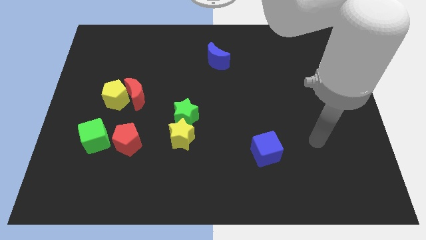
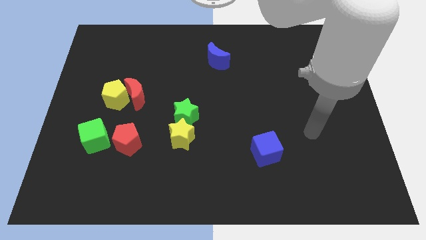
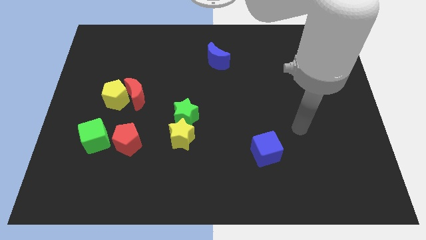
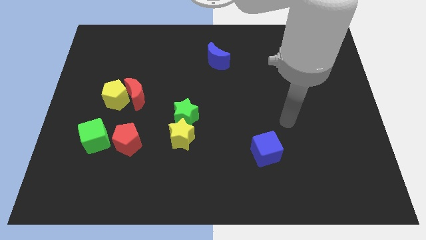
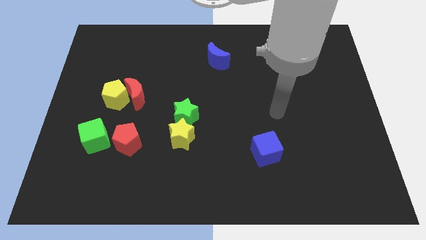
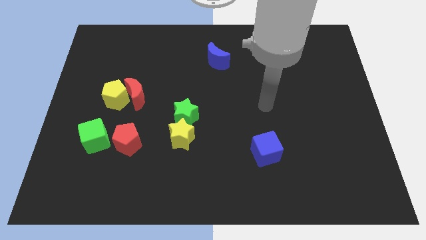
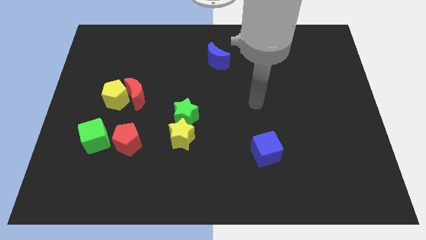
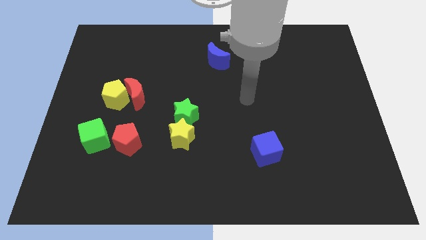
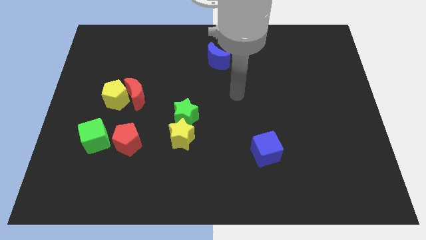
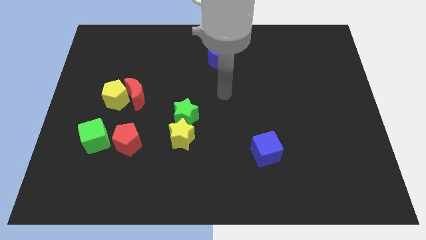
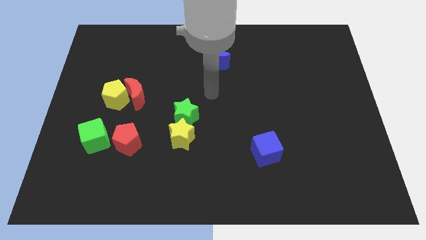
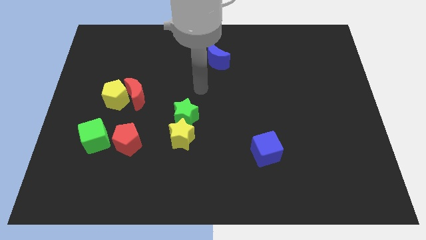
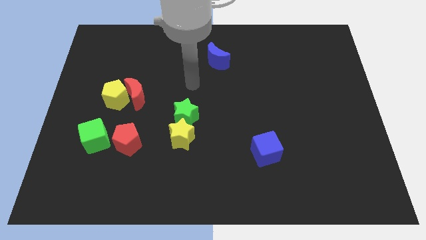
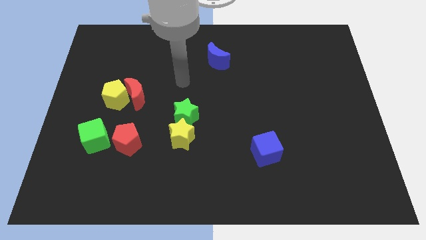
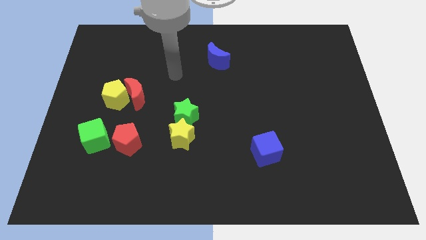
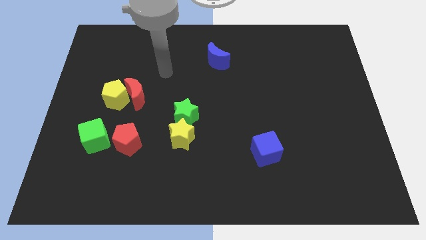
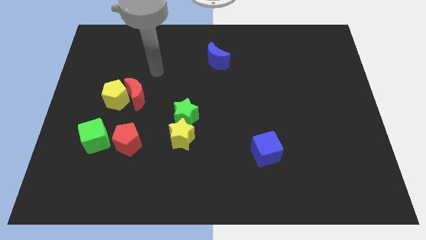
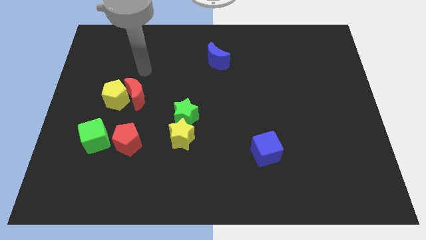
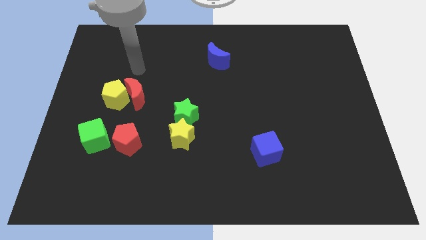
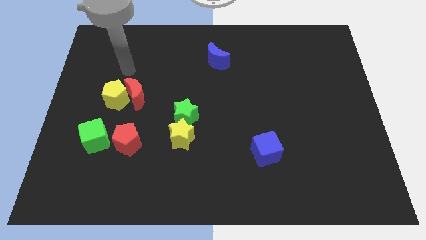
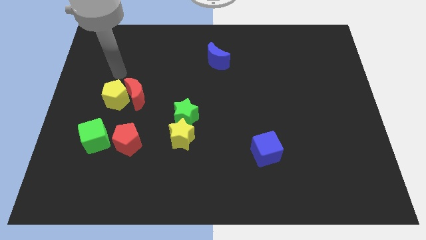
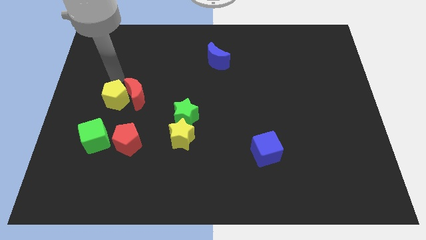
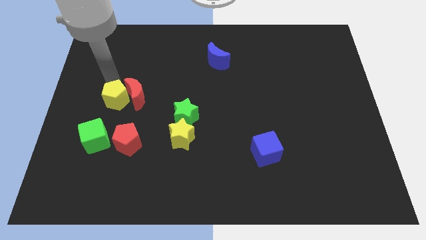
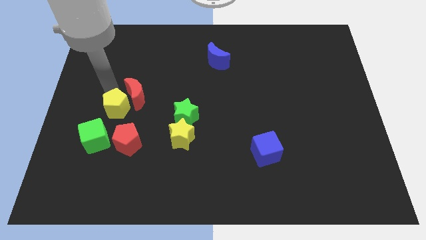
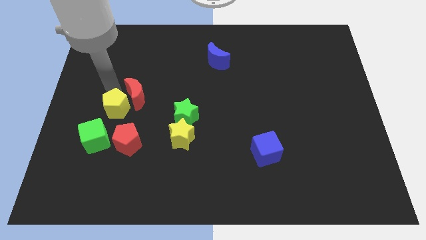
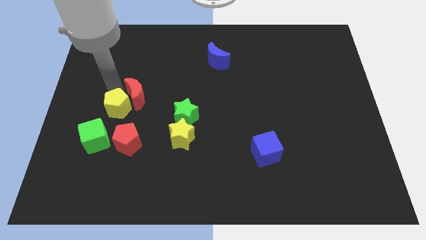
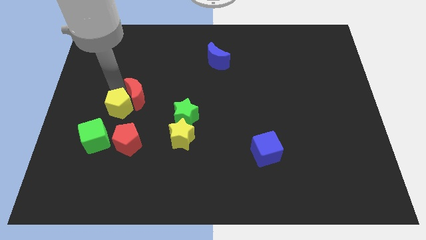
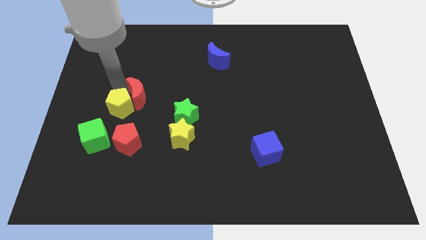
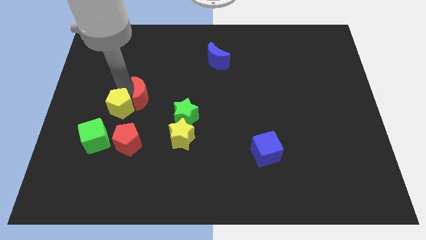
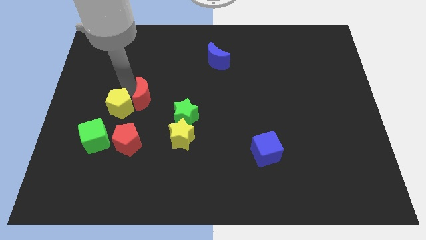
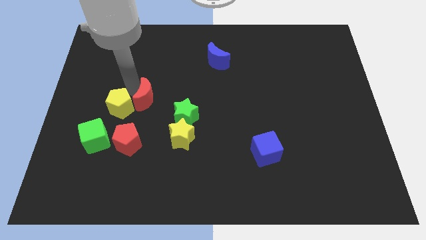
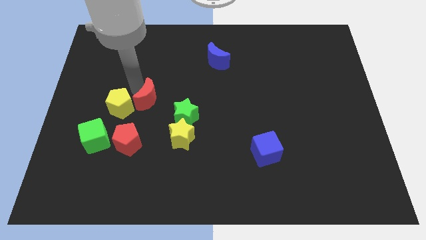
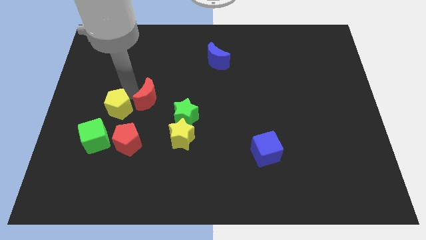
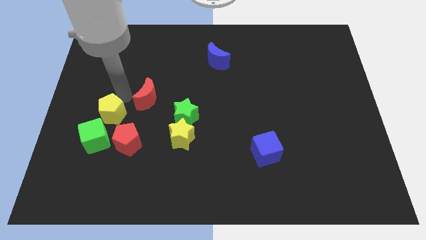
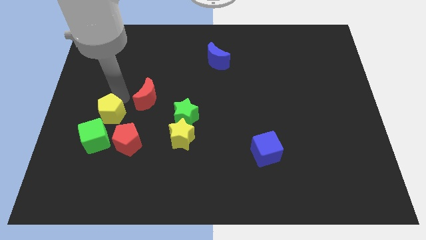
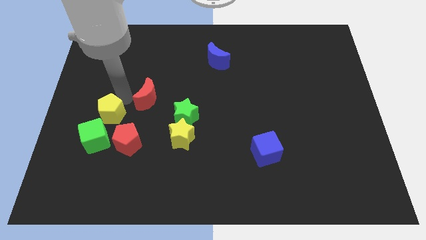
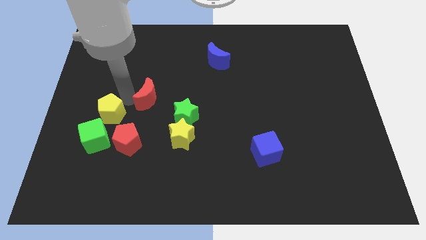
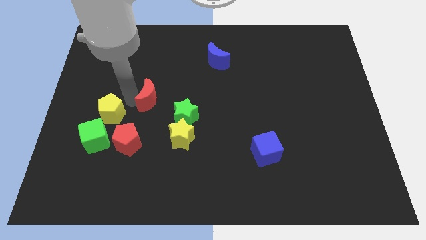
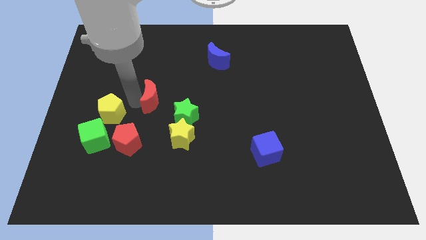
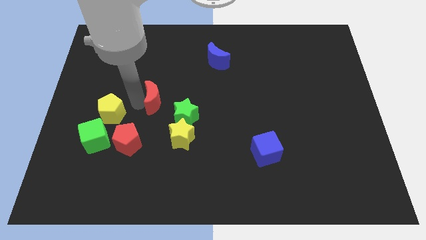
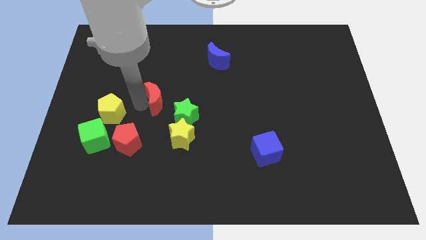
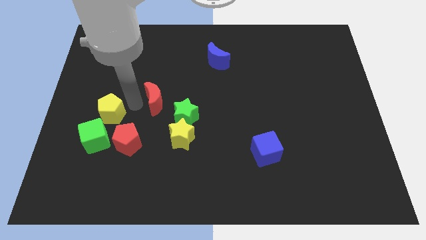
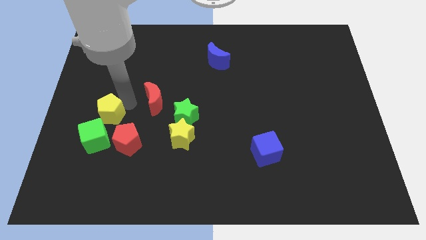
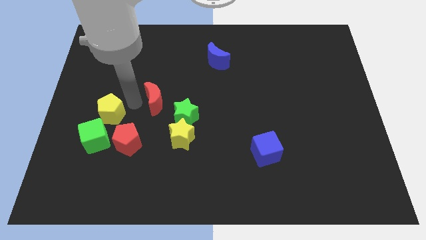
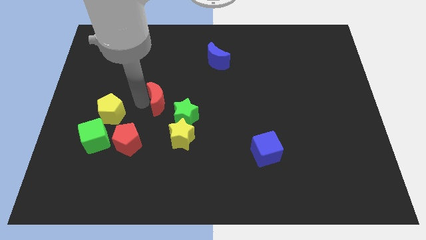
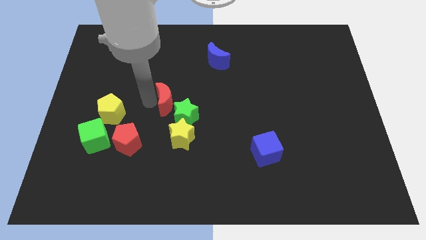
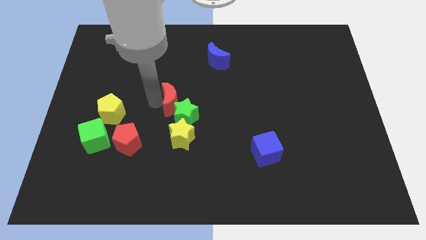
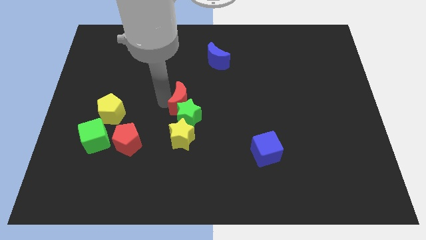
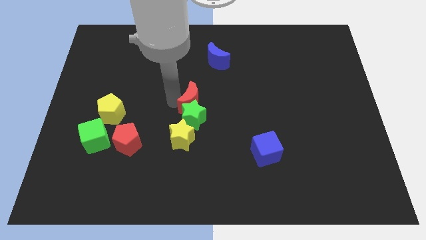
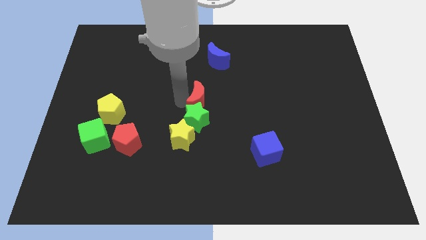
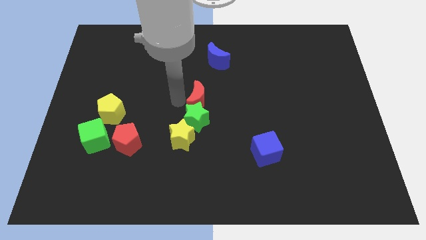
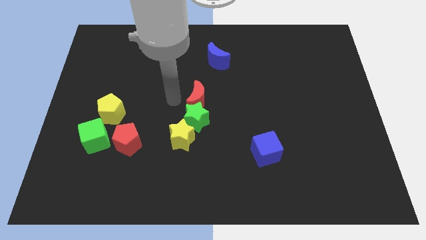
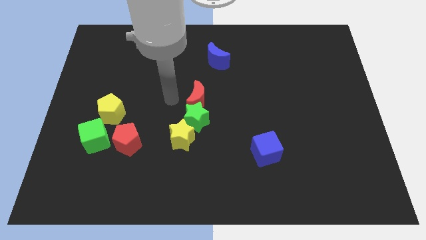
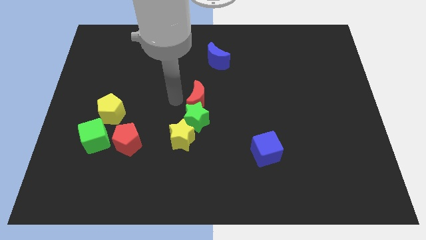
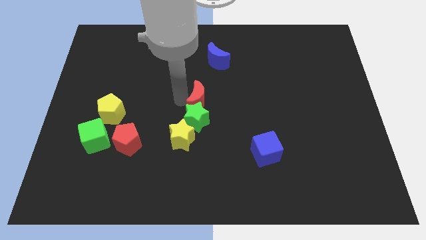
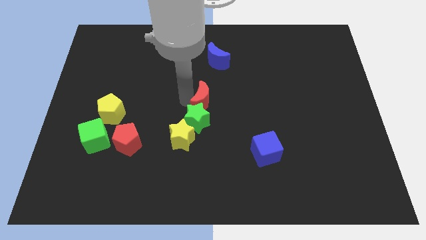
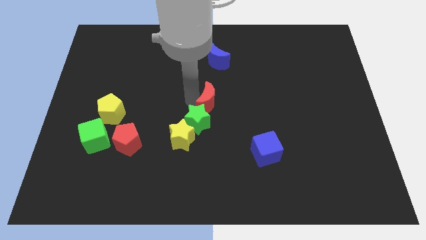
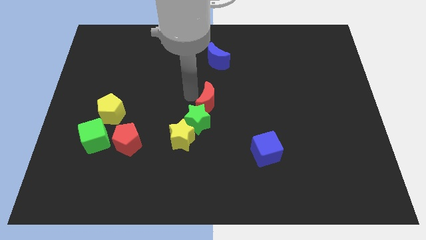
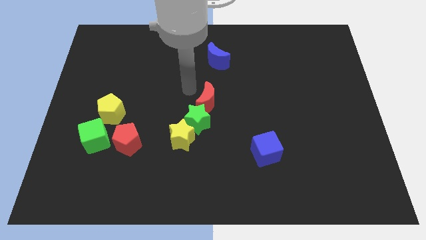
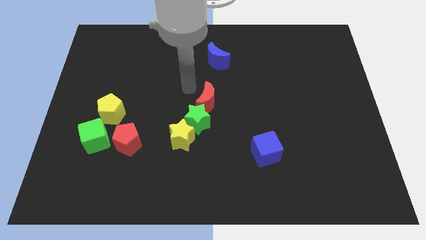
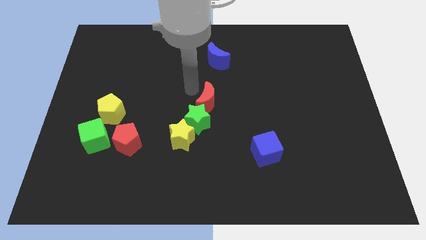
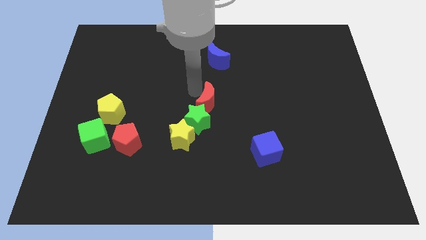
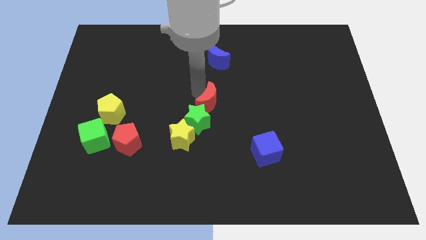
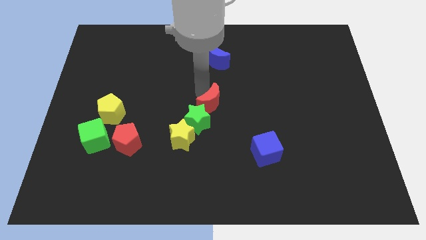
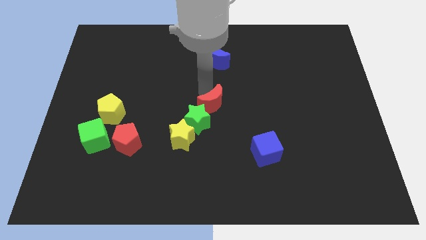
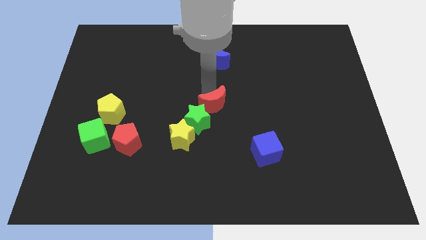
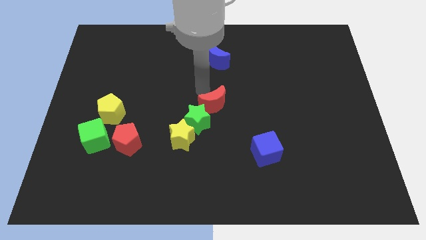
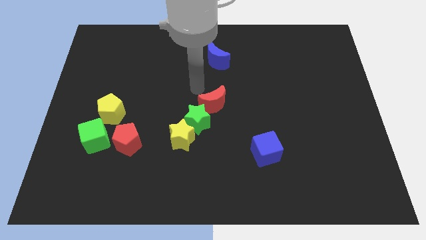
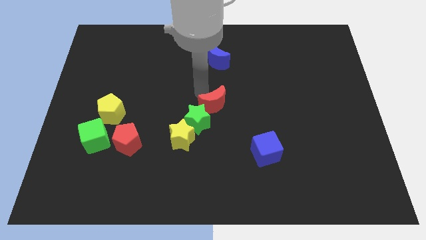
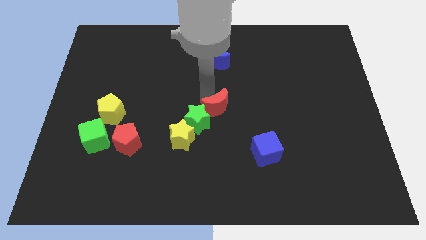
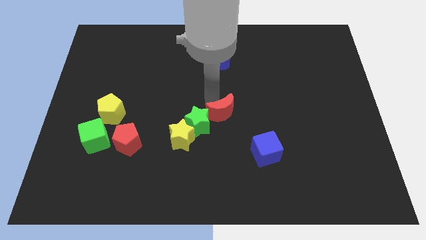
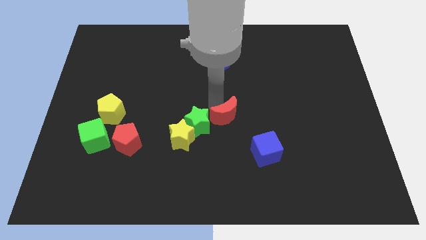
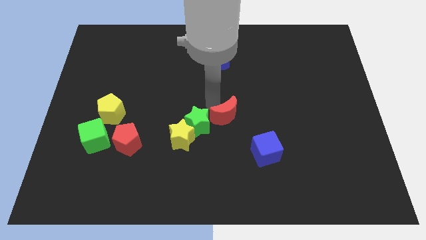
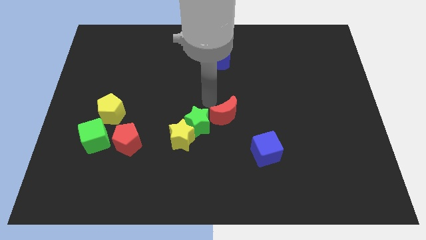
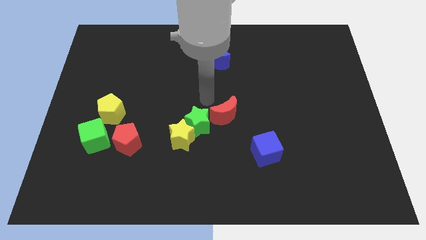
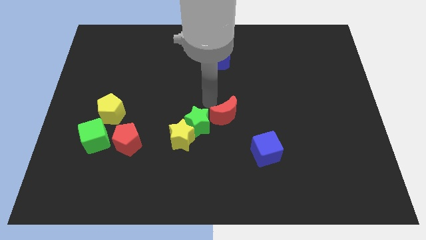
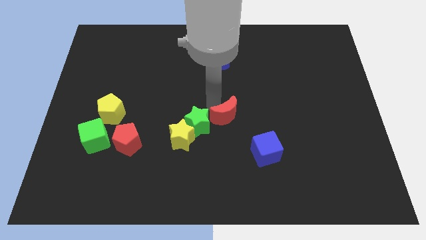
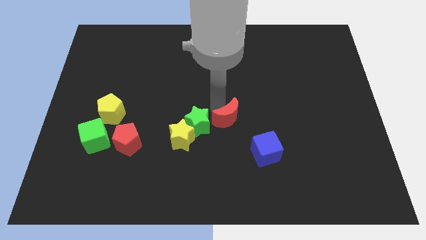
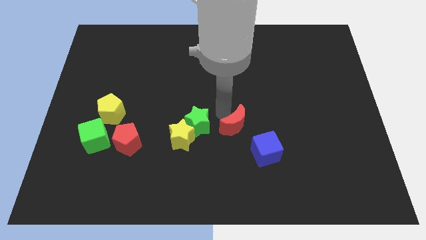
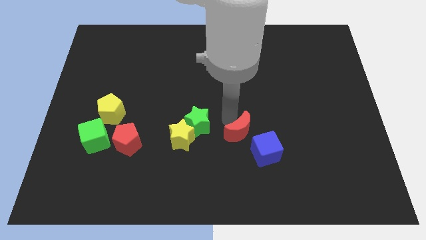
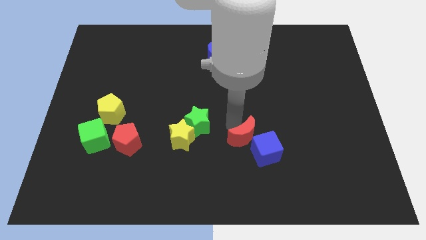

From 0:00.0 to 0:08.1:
slide the red moon next to the blue cube
